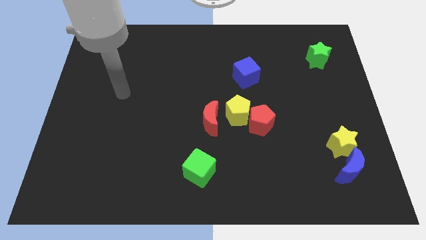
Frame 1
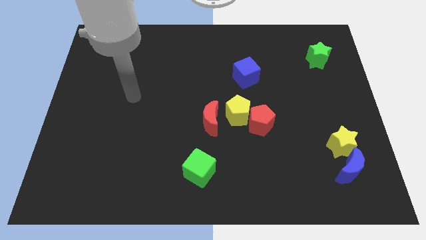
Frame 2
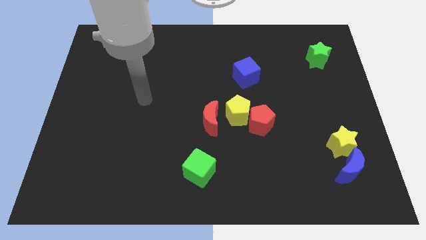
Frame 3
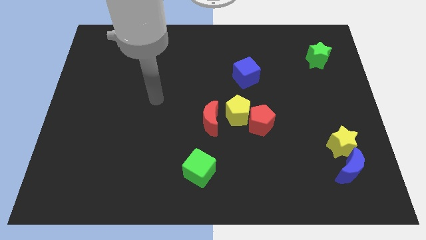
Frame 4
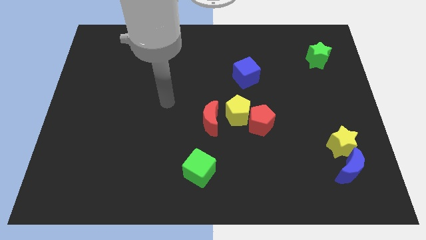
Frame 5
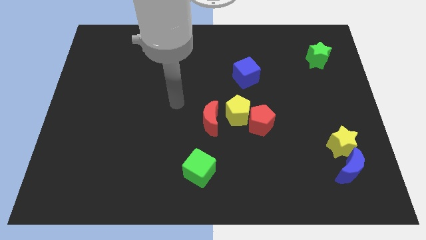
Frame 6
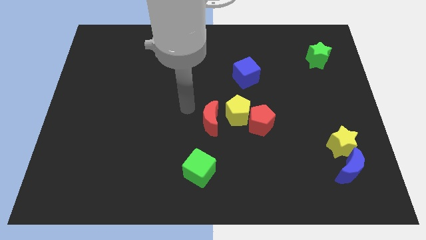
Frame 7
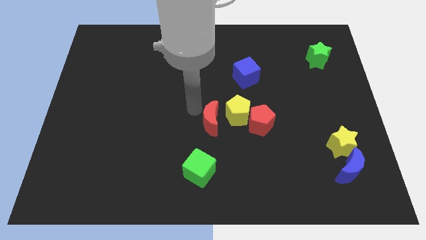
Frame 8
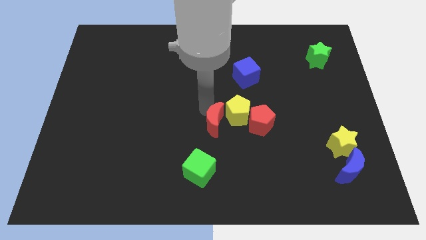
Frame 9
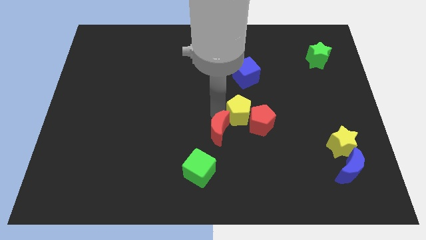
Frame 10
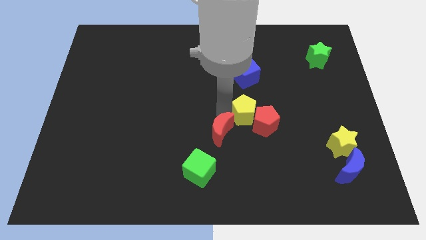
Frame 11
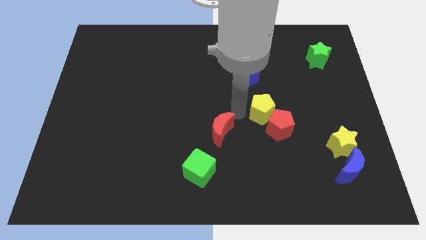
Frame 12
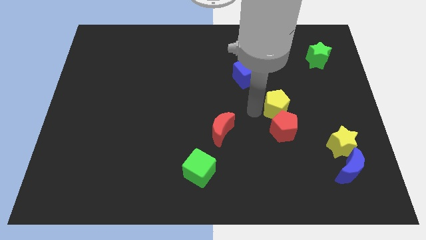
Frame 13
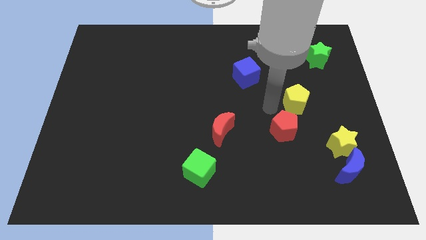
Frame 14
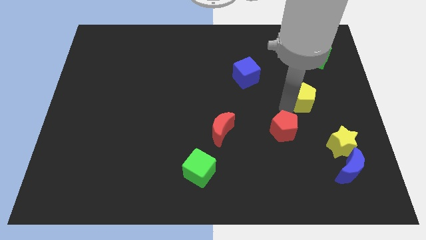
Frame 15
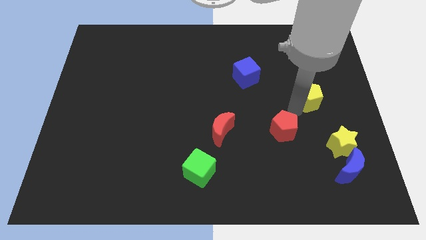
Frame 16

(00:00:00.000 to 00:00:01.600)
pull the red pentagon apart from the yellow pentagon

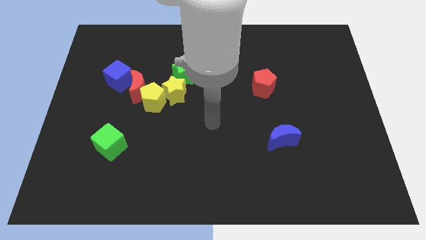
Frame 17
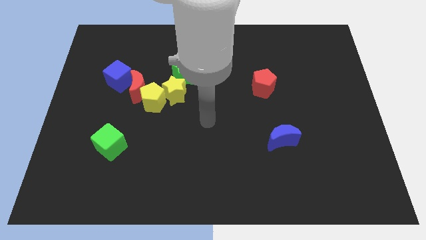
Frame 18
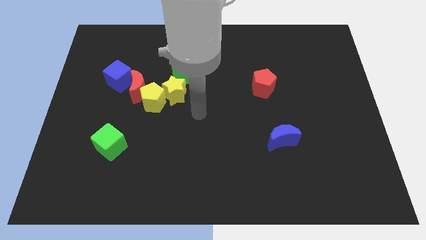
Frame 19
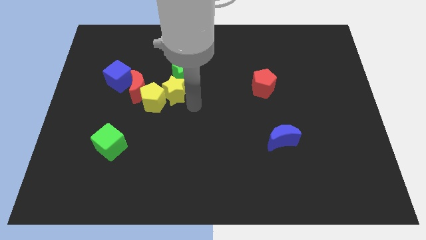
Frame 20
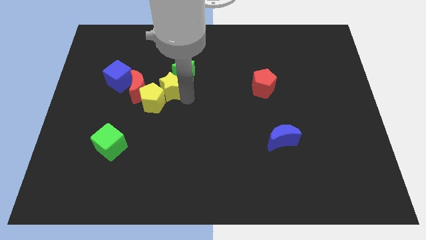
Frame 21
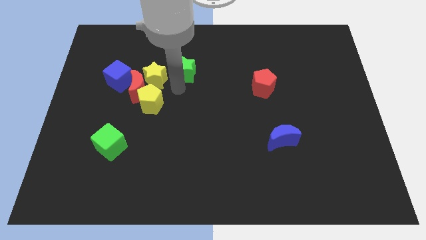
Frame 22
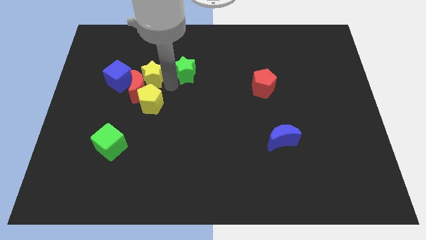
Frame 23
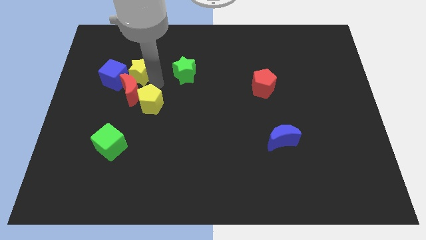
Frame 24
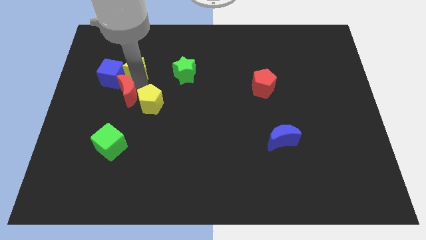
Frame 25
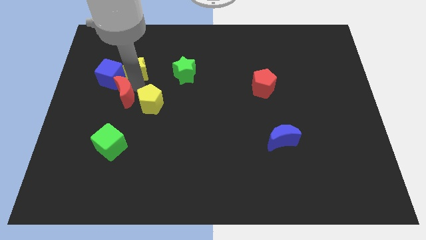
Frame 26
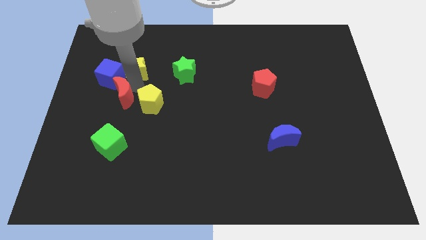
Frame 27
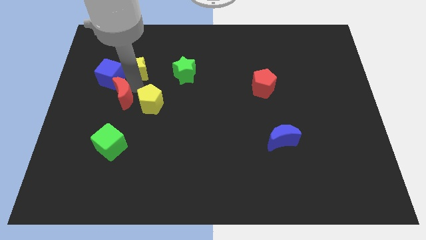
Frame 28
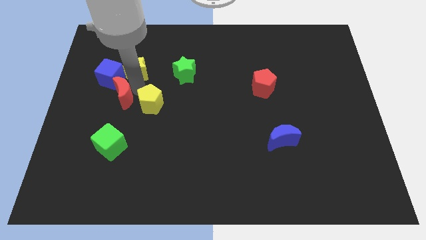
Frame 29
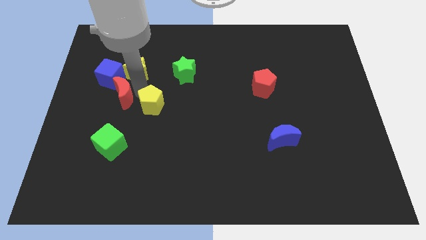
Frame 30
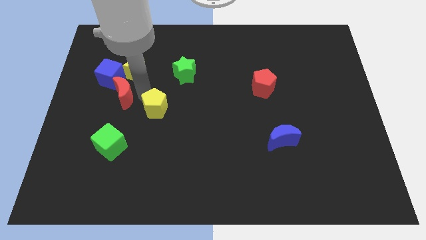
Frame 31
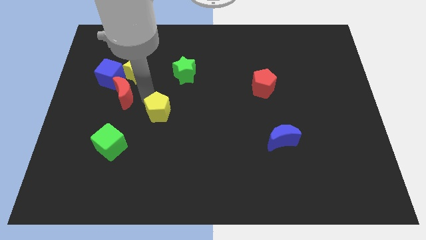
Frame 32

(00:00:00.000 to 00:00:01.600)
pull the yellow pentagon apart from the red moon and yellow star

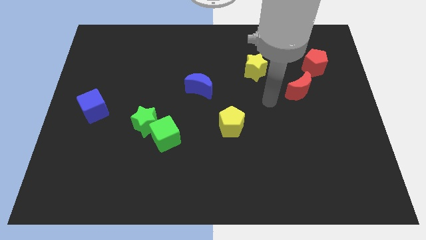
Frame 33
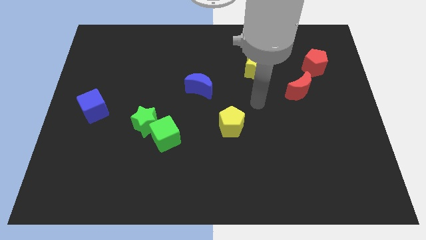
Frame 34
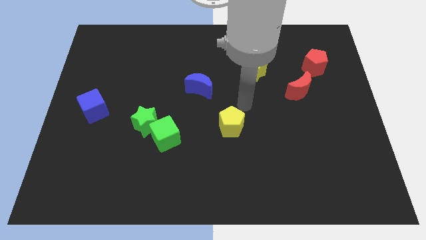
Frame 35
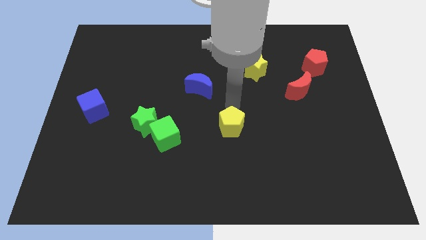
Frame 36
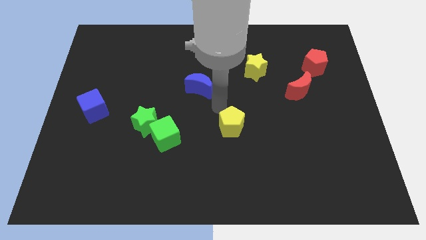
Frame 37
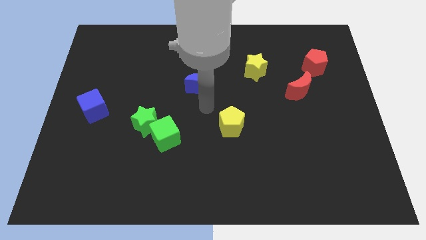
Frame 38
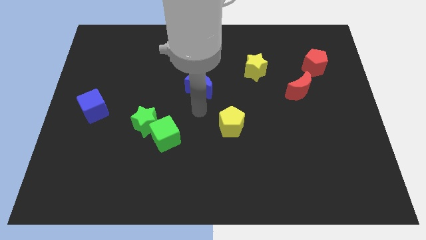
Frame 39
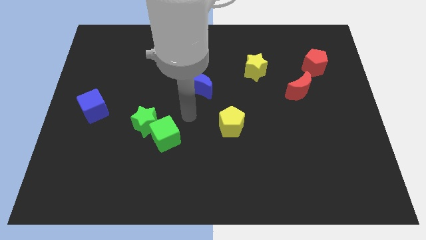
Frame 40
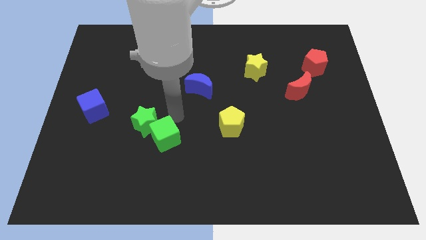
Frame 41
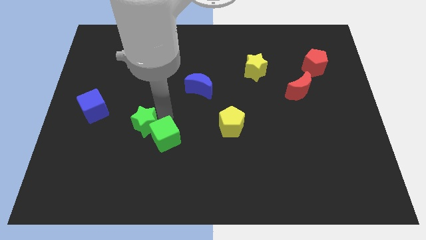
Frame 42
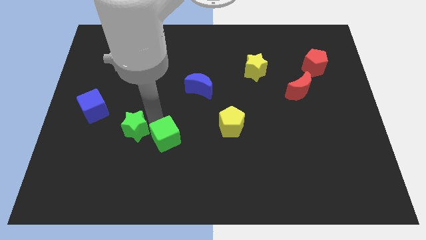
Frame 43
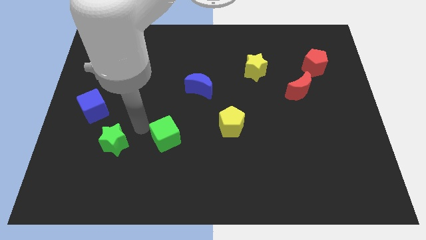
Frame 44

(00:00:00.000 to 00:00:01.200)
move the green cube away from the green star

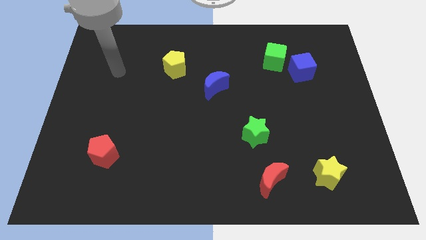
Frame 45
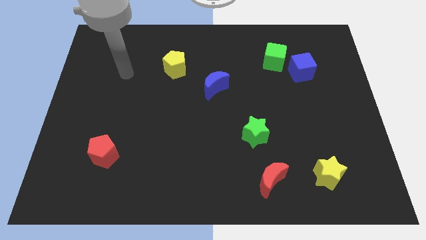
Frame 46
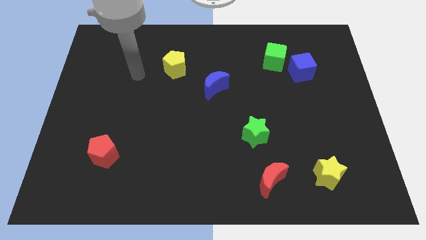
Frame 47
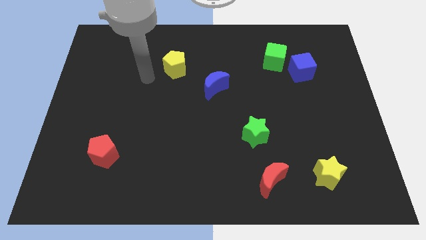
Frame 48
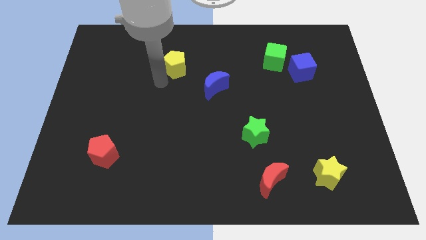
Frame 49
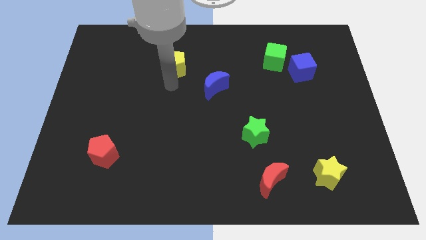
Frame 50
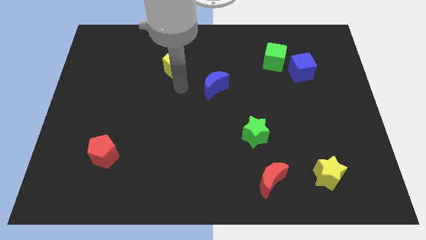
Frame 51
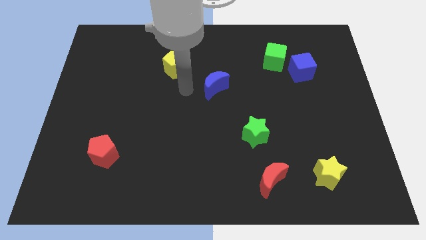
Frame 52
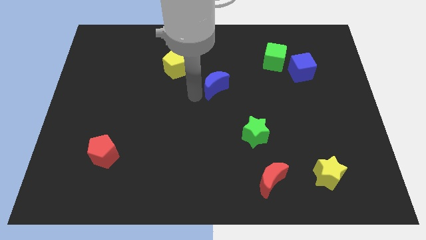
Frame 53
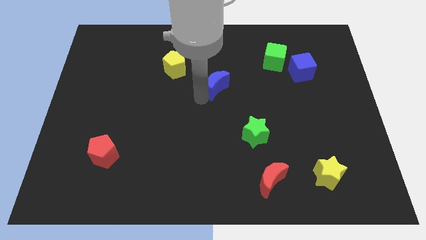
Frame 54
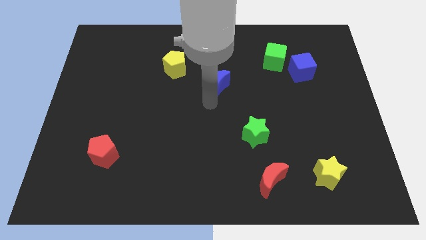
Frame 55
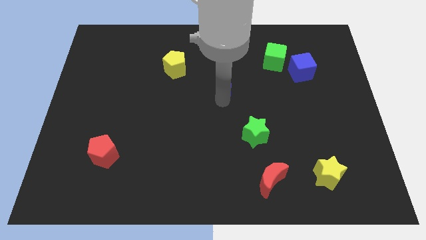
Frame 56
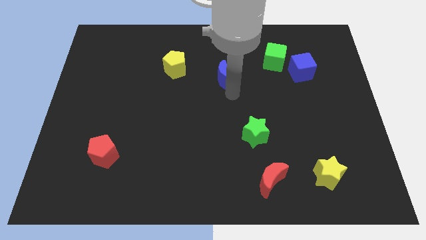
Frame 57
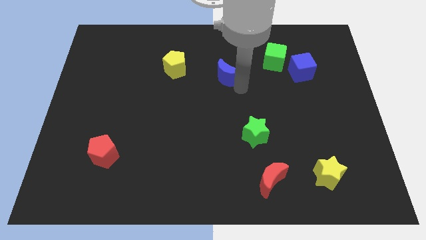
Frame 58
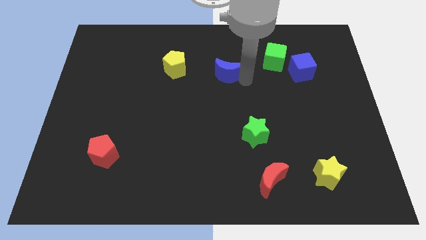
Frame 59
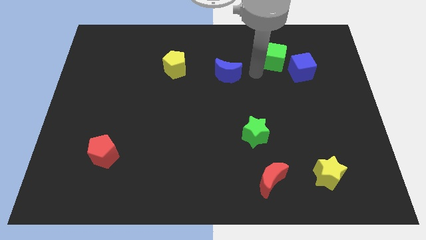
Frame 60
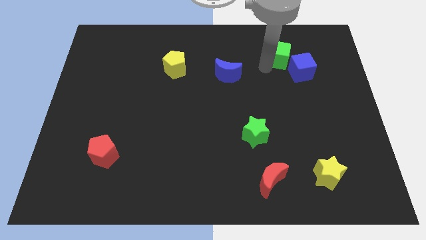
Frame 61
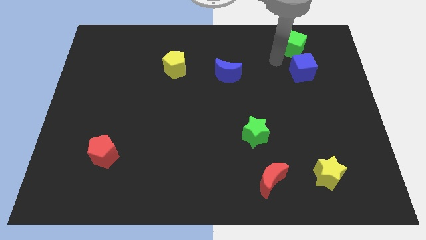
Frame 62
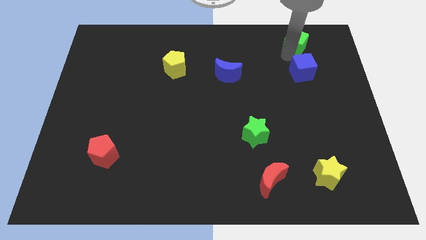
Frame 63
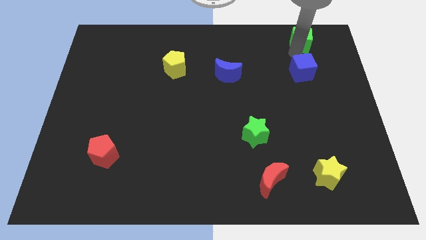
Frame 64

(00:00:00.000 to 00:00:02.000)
separate the blue cube from the green cube

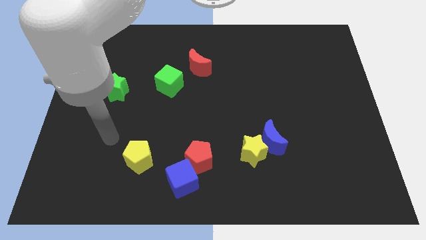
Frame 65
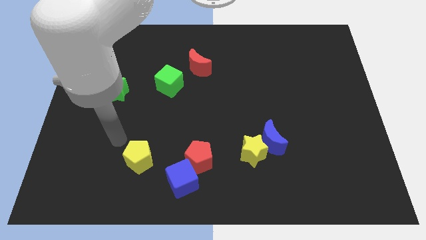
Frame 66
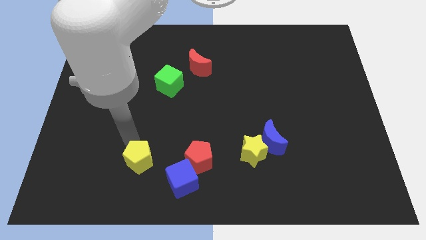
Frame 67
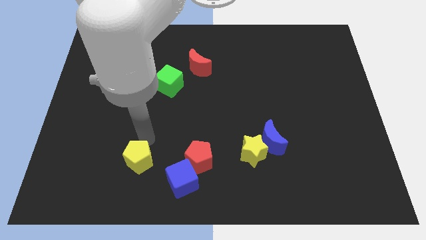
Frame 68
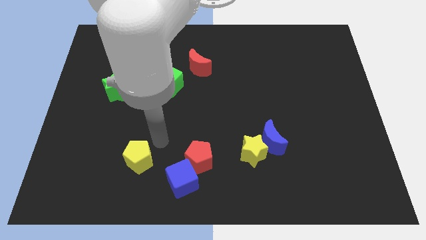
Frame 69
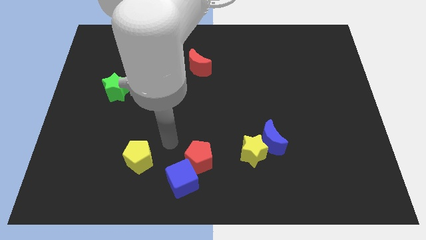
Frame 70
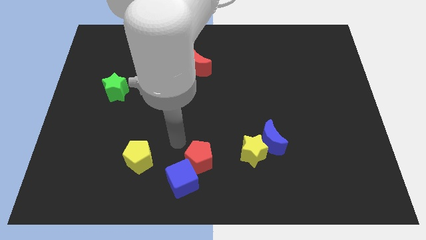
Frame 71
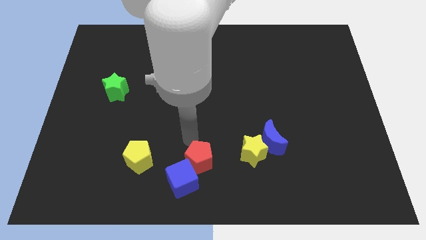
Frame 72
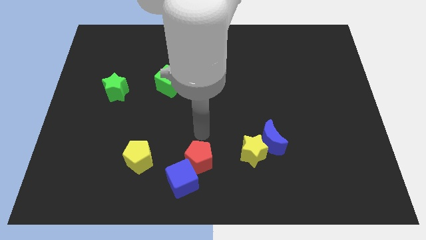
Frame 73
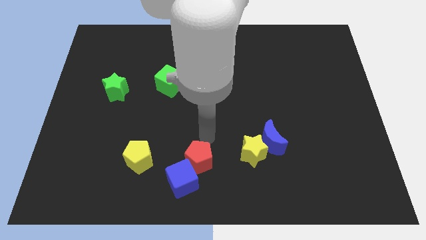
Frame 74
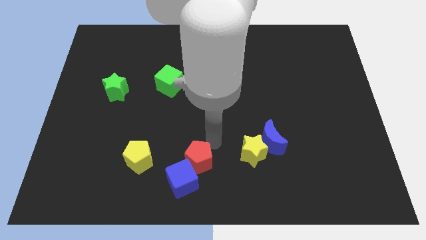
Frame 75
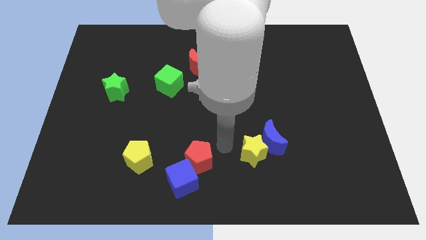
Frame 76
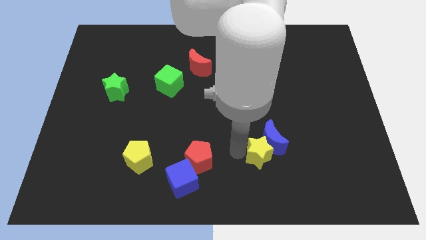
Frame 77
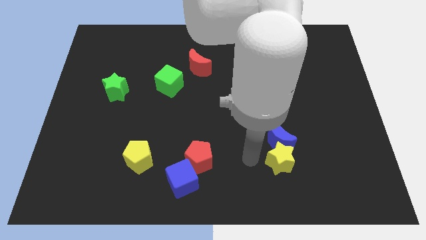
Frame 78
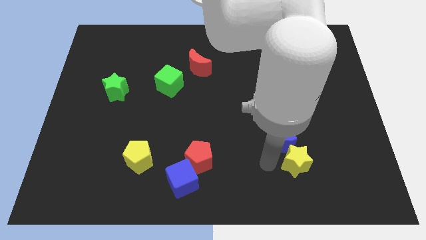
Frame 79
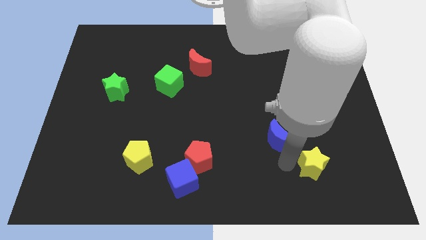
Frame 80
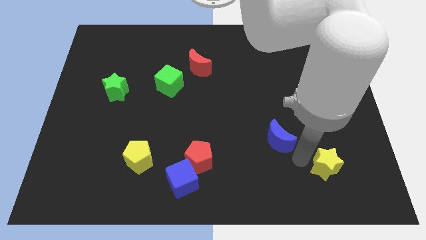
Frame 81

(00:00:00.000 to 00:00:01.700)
pull the blue moon apart from the yellow star

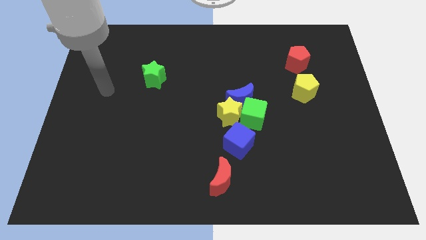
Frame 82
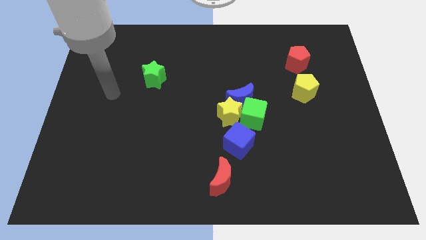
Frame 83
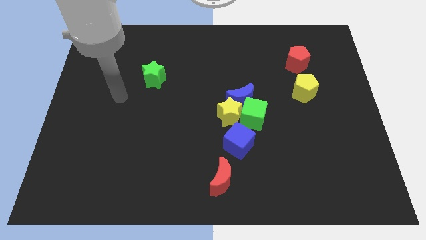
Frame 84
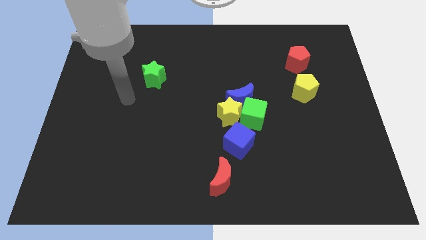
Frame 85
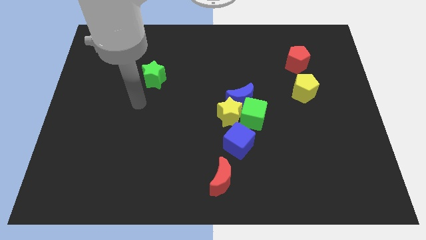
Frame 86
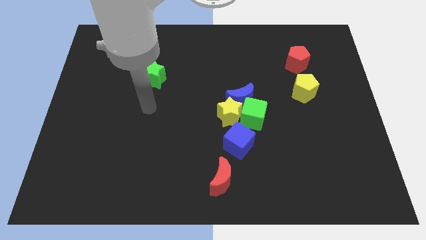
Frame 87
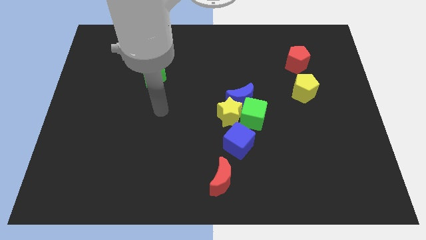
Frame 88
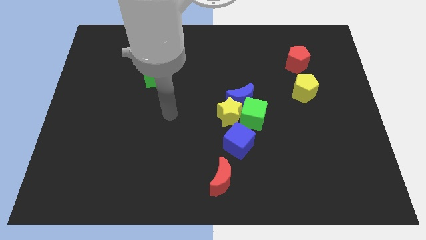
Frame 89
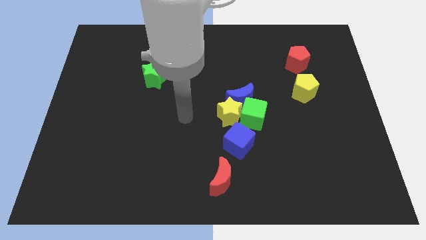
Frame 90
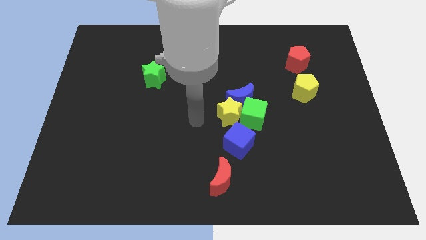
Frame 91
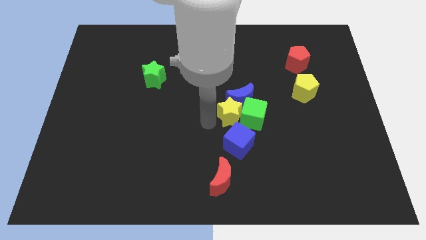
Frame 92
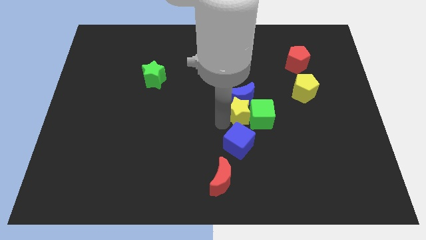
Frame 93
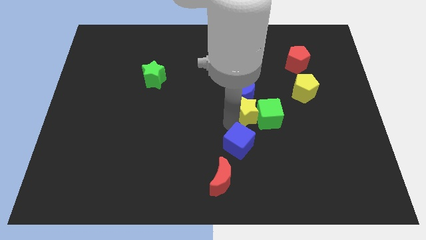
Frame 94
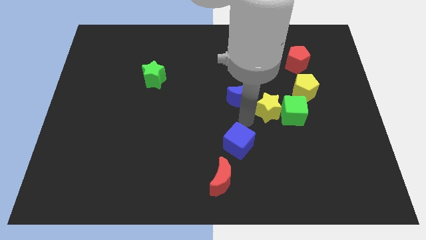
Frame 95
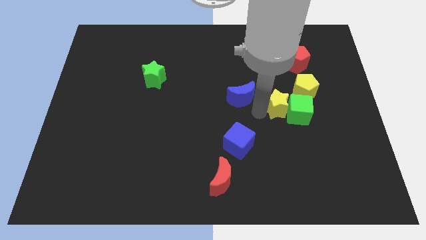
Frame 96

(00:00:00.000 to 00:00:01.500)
separate the blue moon from the green cube and yellow star
